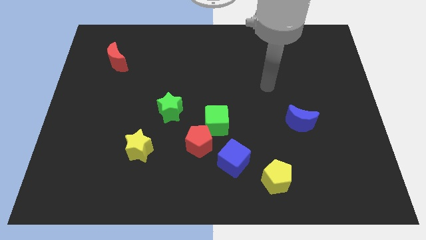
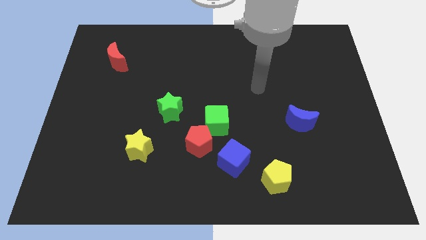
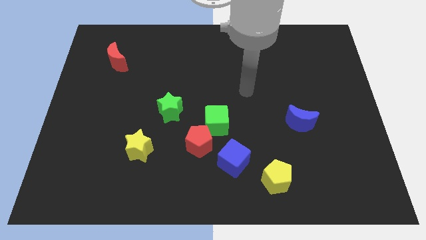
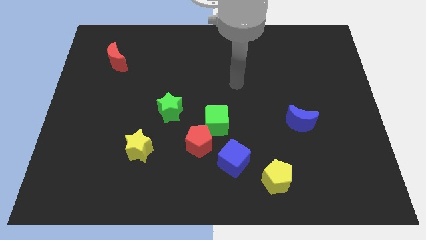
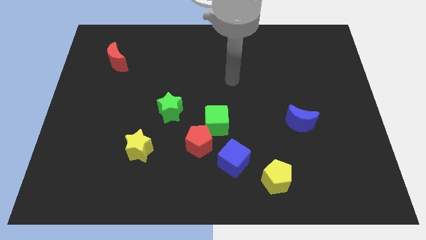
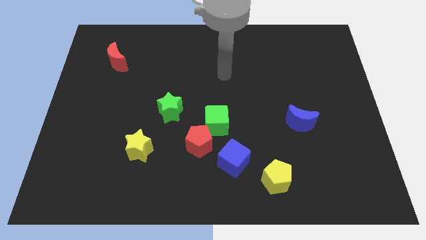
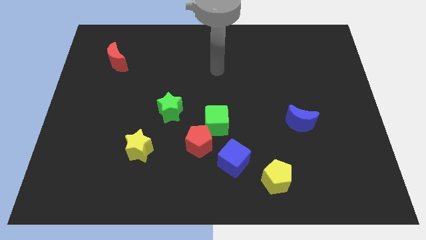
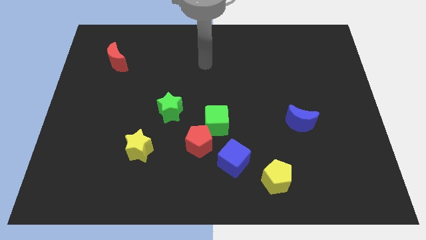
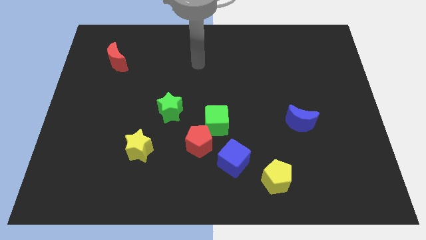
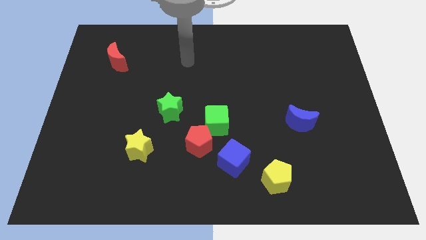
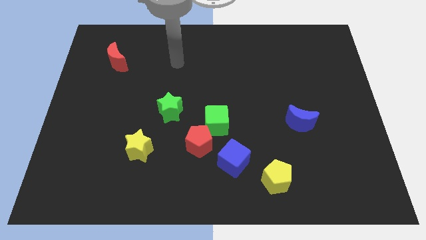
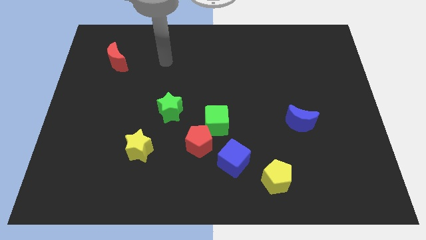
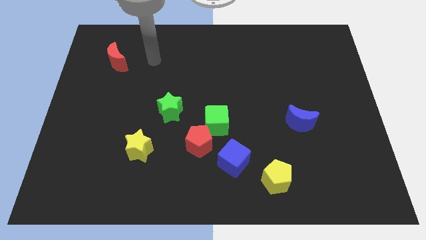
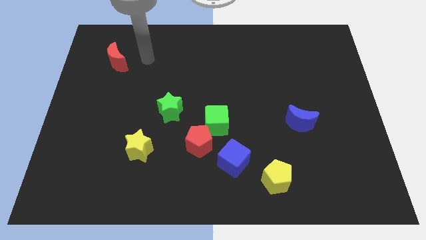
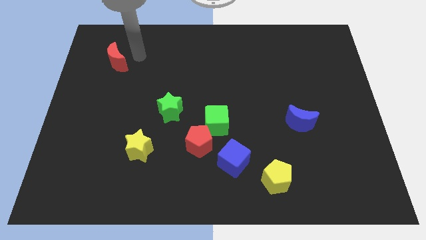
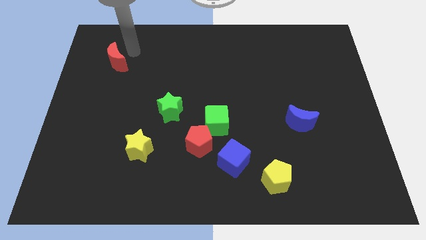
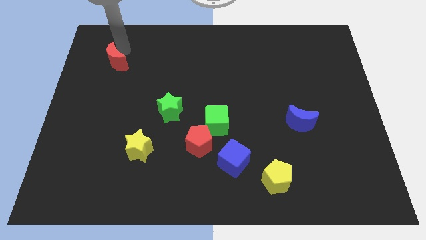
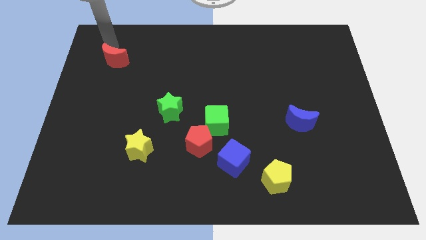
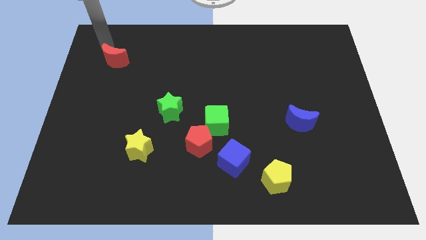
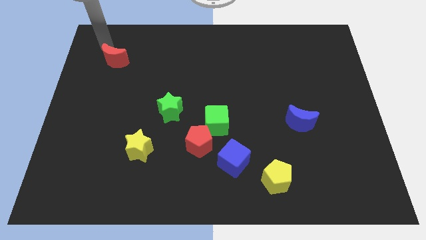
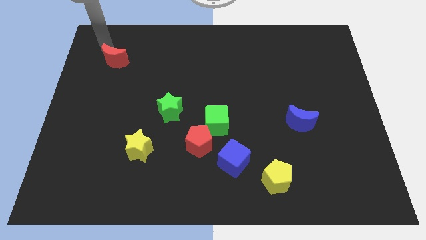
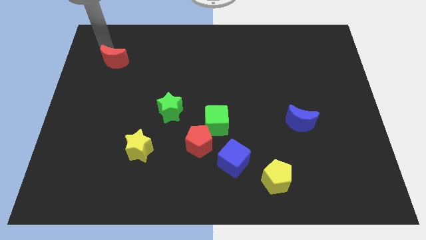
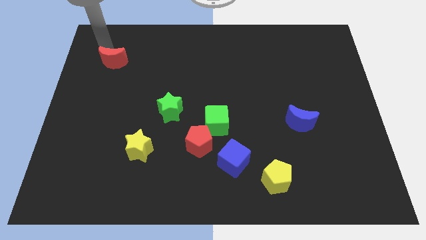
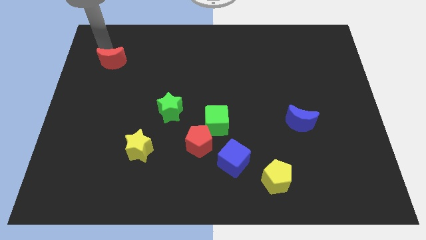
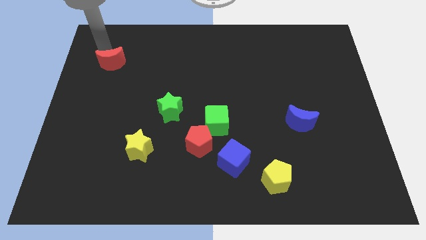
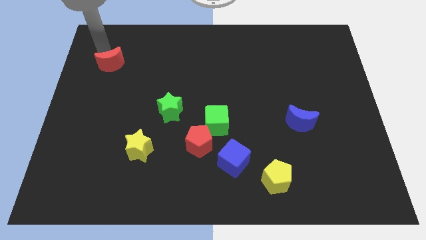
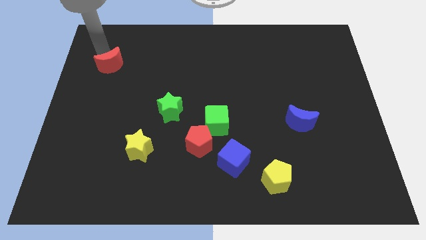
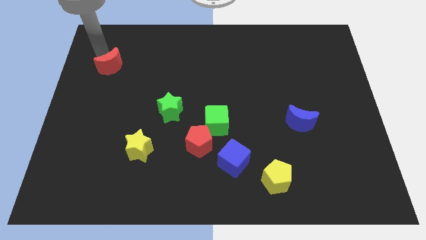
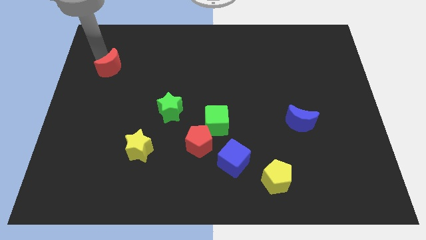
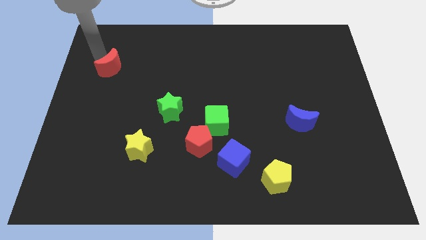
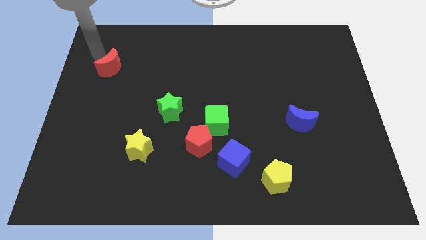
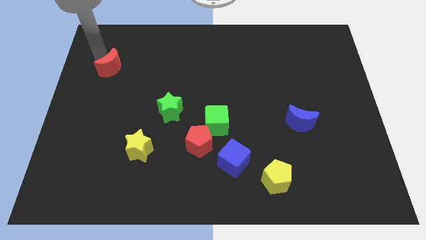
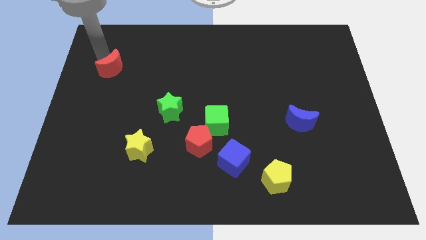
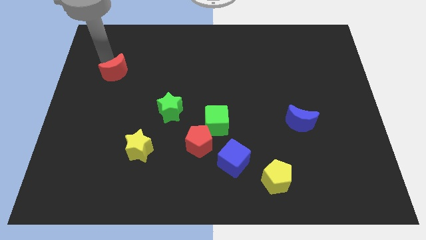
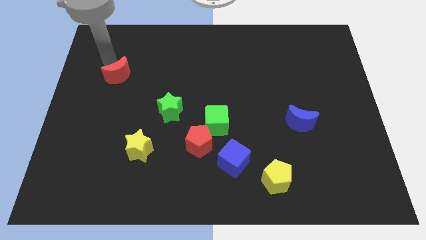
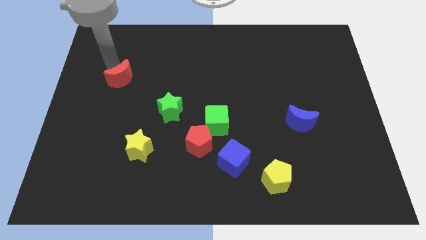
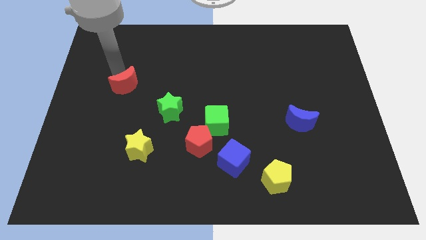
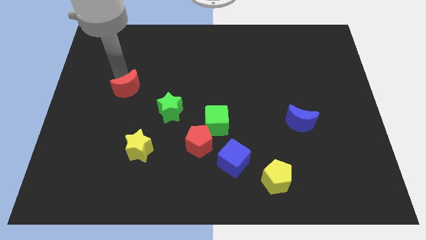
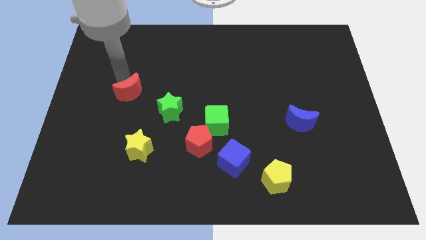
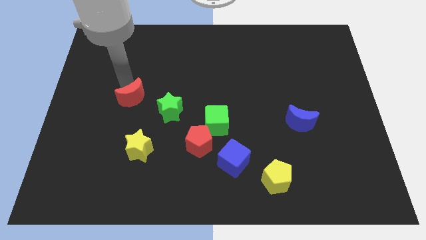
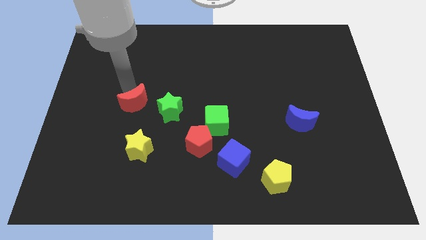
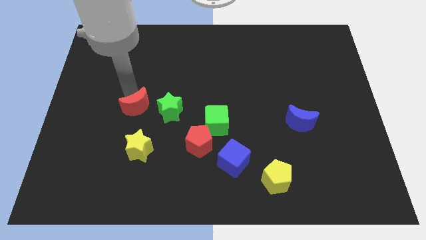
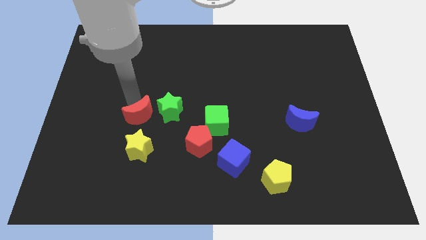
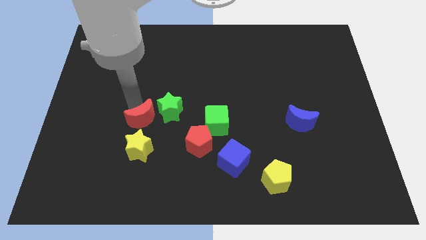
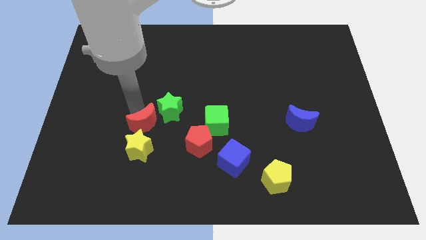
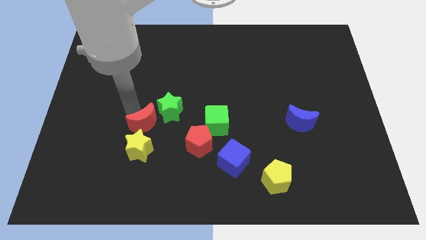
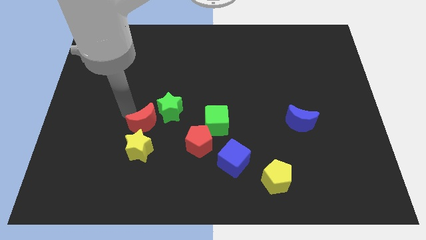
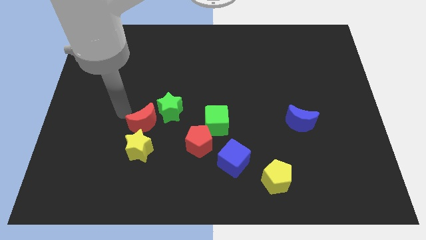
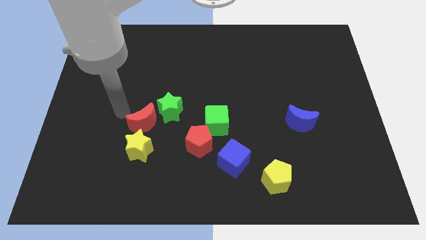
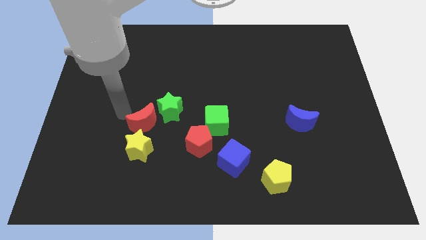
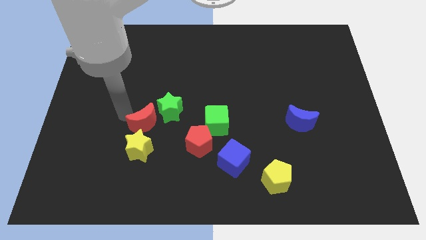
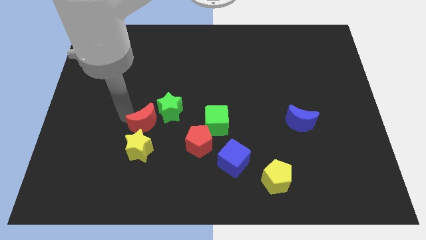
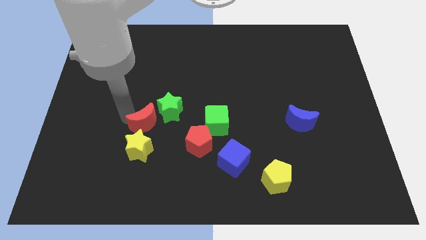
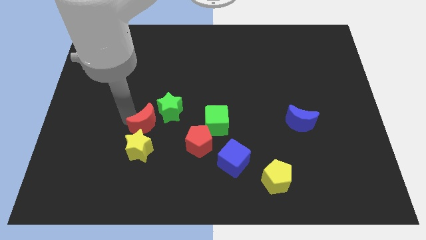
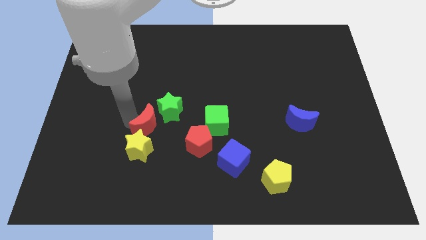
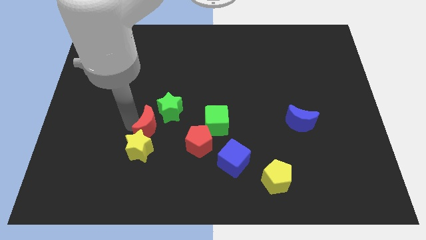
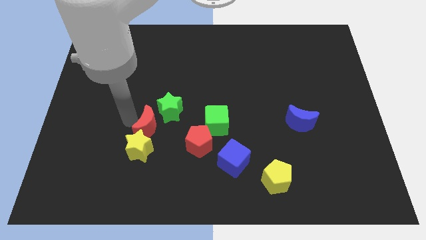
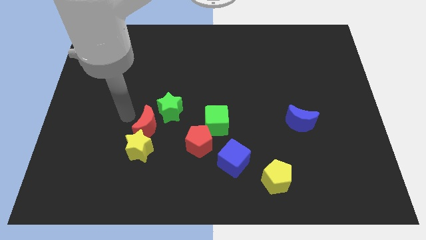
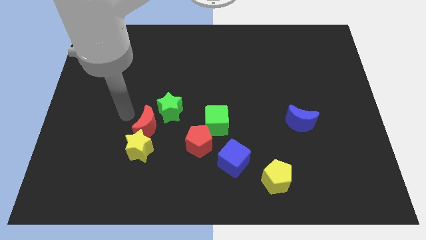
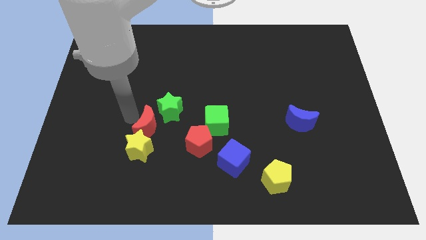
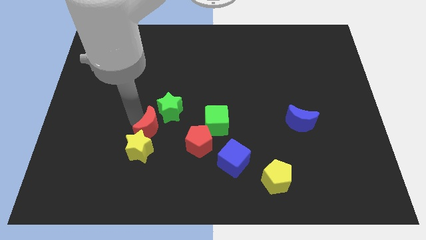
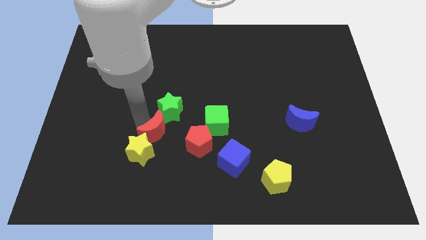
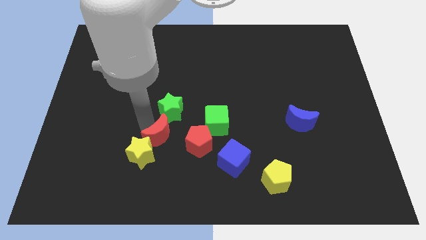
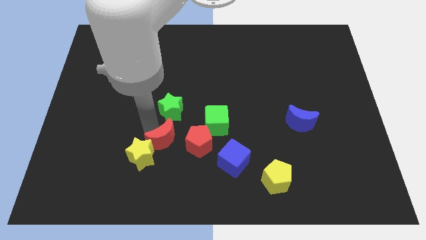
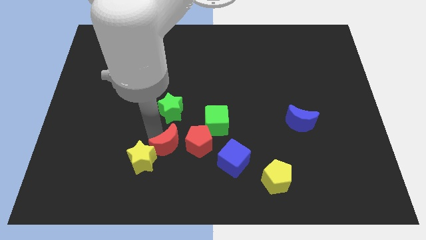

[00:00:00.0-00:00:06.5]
move the red moon to the bottom left side of the green cube
